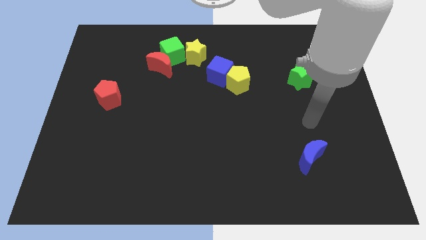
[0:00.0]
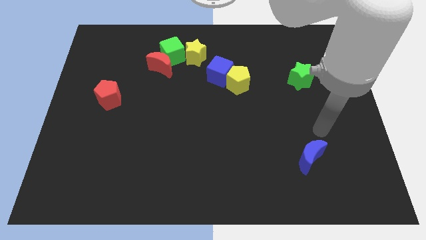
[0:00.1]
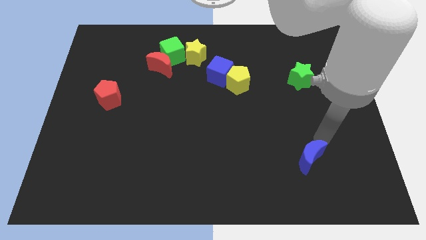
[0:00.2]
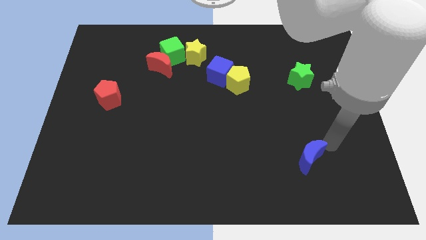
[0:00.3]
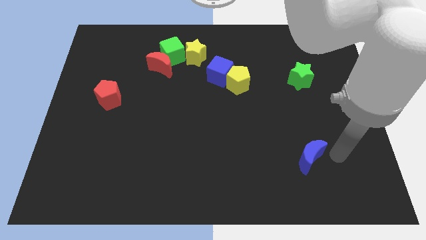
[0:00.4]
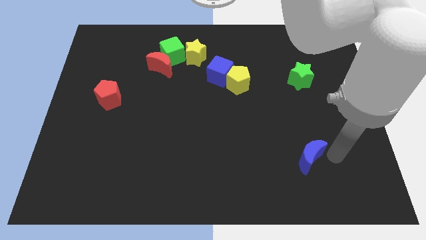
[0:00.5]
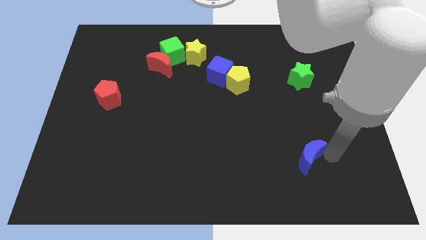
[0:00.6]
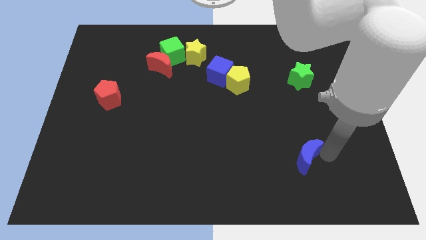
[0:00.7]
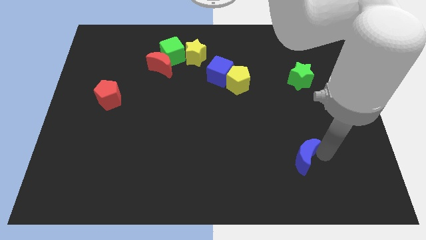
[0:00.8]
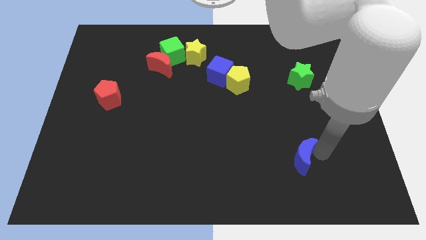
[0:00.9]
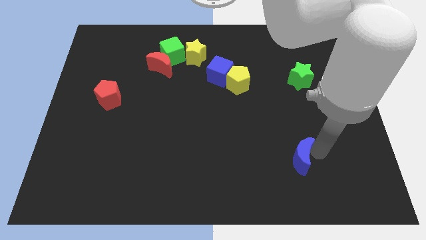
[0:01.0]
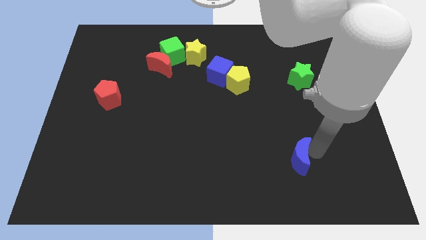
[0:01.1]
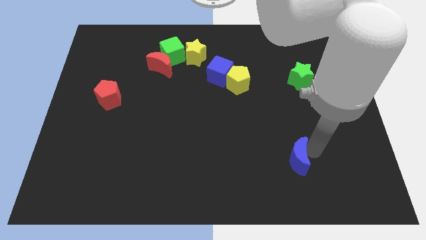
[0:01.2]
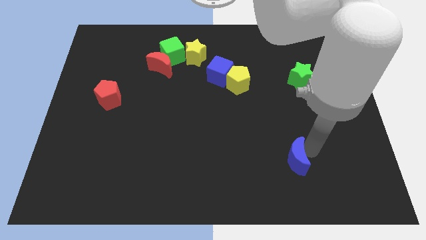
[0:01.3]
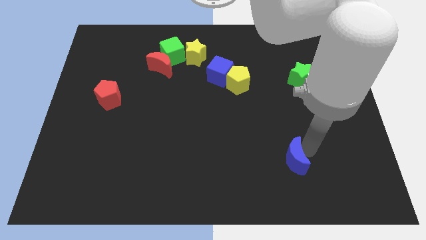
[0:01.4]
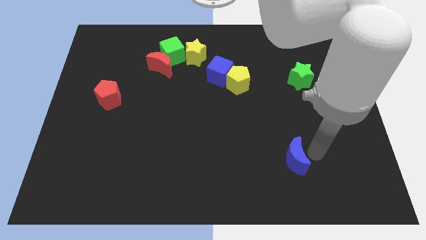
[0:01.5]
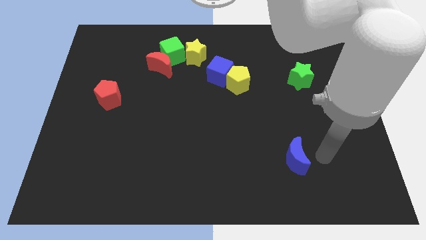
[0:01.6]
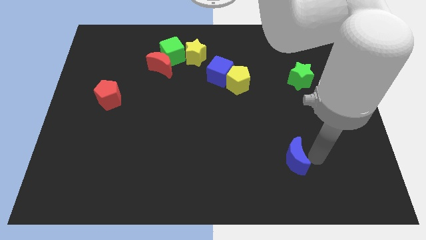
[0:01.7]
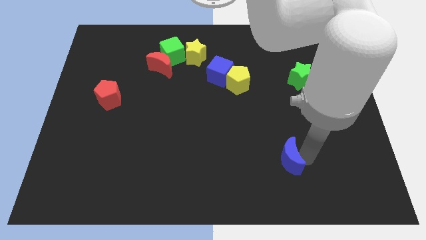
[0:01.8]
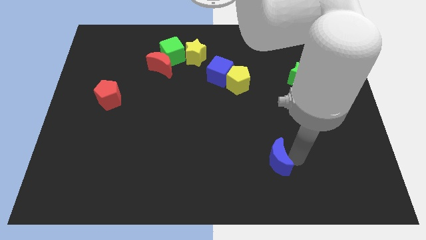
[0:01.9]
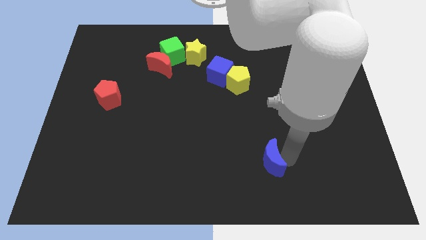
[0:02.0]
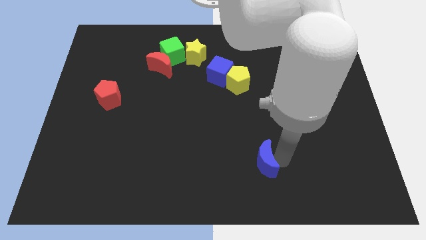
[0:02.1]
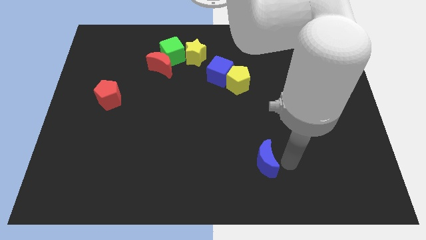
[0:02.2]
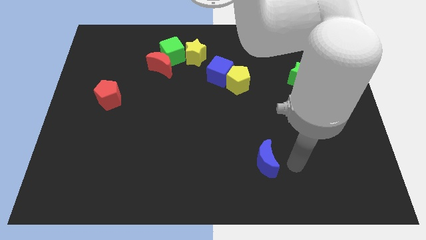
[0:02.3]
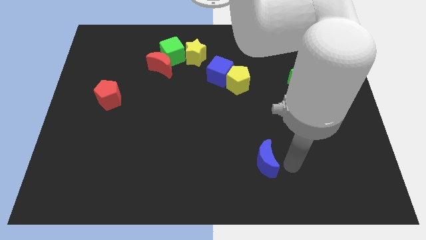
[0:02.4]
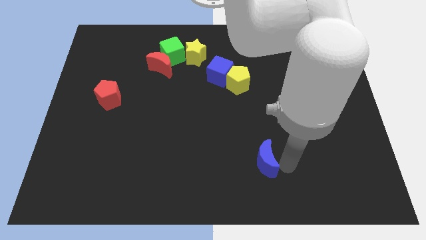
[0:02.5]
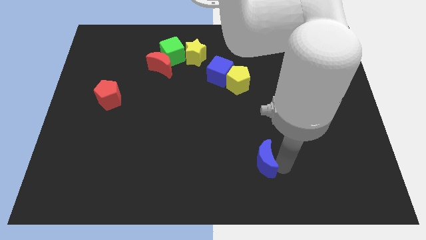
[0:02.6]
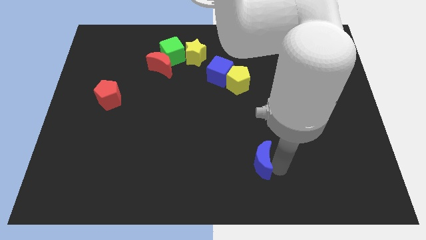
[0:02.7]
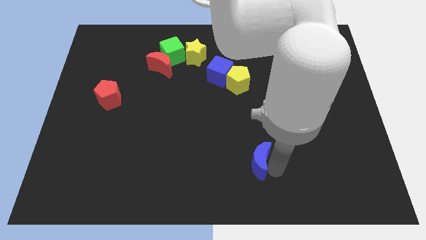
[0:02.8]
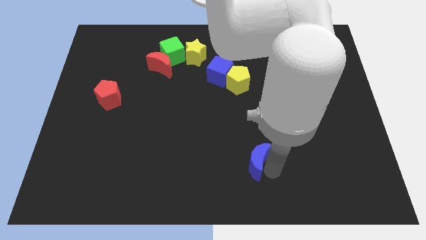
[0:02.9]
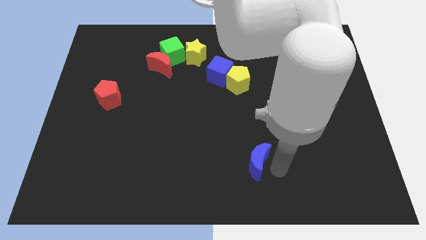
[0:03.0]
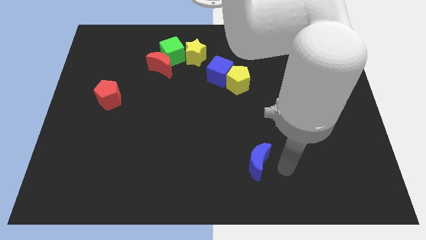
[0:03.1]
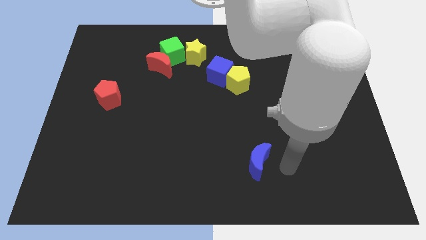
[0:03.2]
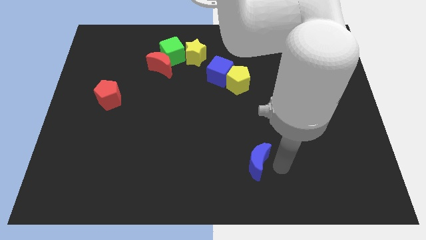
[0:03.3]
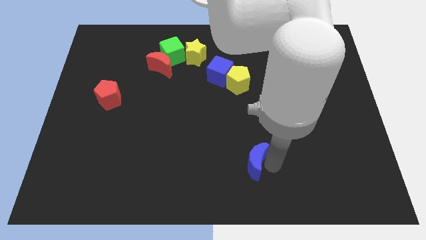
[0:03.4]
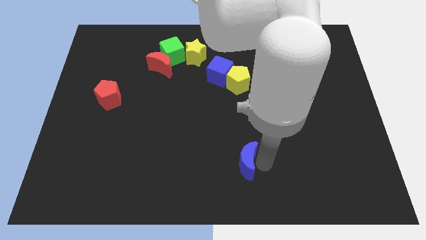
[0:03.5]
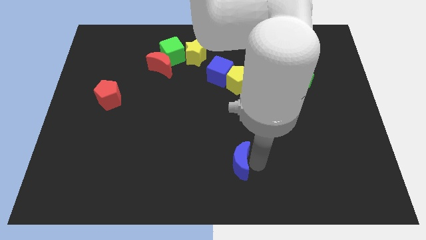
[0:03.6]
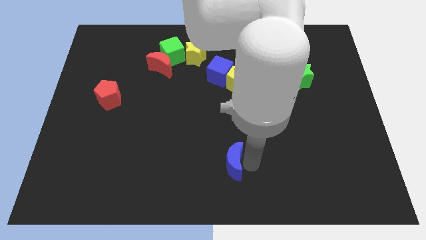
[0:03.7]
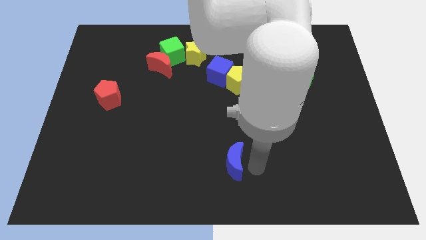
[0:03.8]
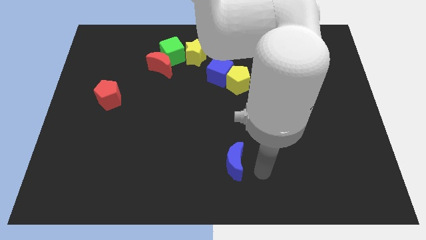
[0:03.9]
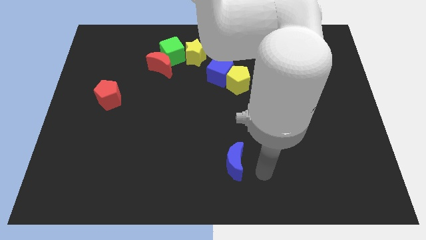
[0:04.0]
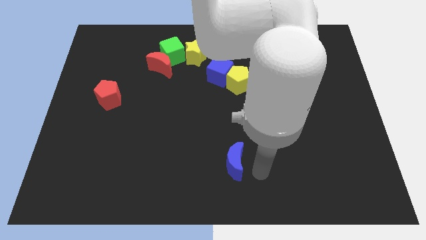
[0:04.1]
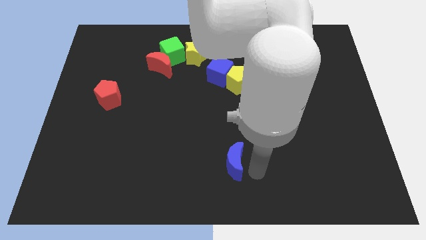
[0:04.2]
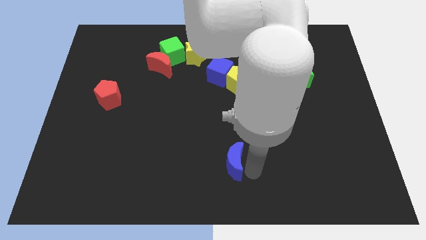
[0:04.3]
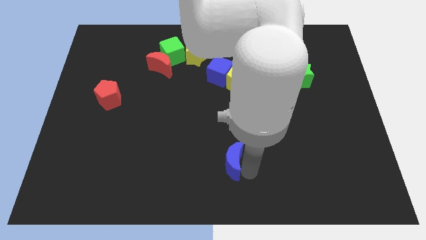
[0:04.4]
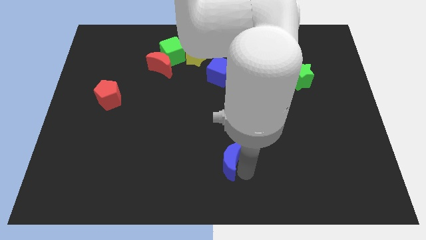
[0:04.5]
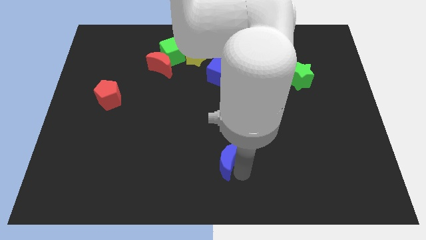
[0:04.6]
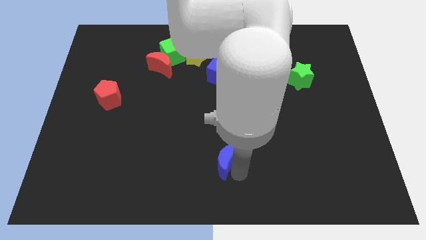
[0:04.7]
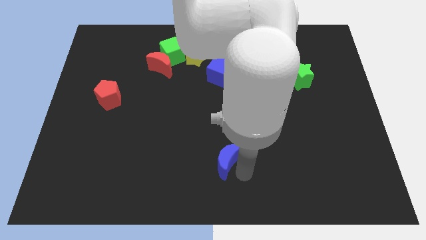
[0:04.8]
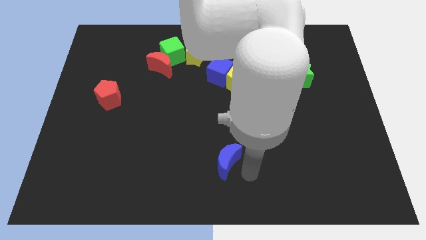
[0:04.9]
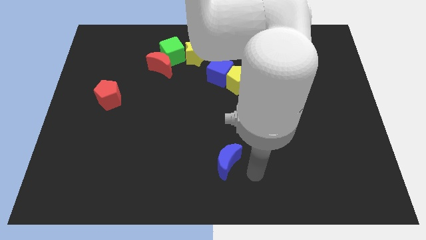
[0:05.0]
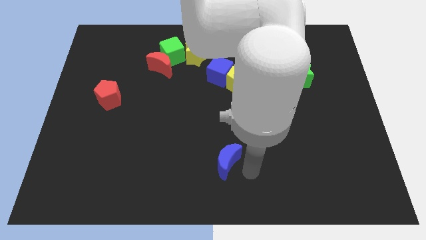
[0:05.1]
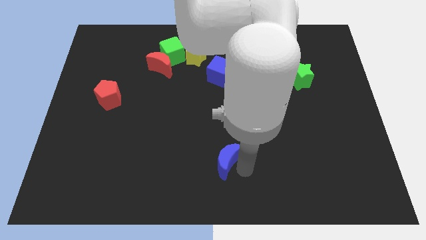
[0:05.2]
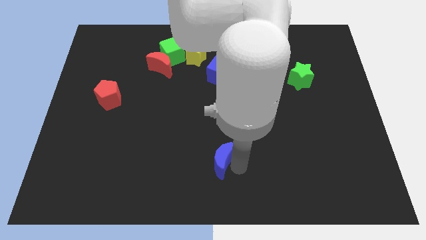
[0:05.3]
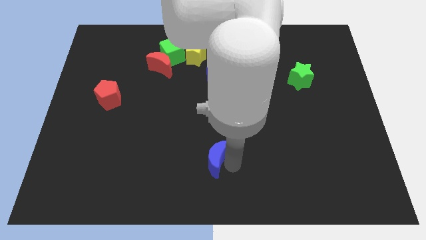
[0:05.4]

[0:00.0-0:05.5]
slide the blue moon left

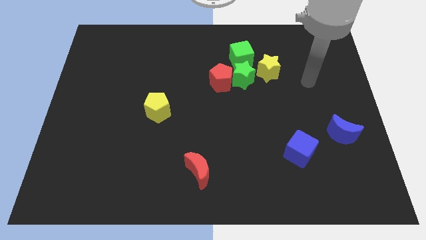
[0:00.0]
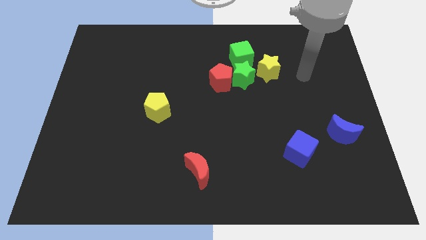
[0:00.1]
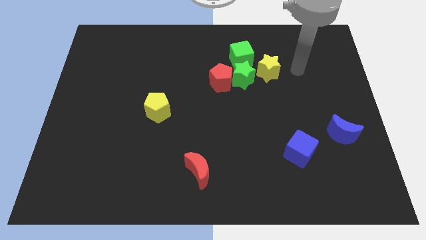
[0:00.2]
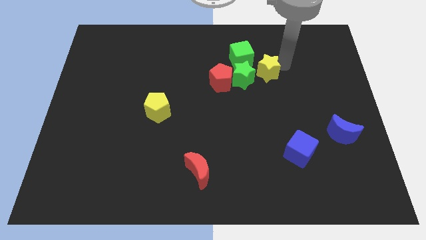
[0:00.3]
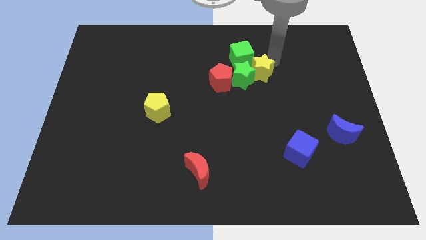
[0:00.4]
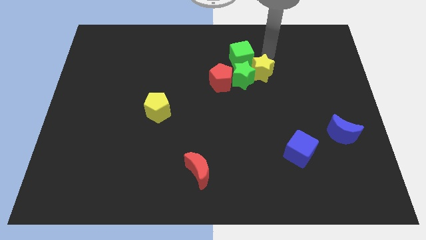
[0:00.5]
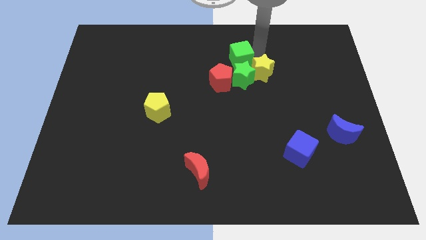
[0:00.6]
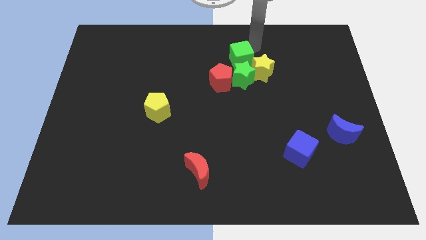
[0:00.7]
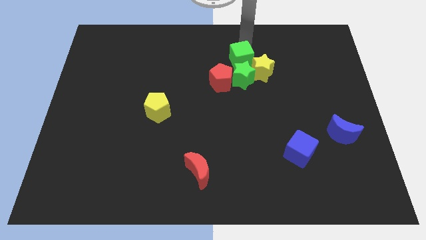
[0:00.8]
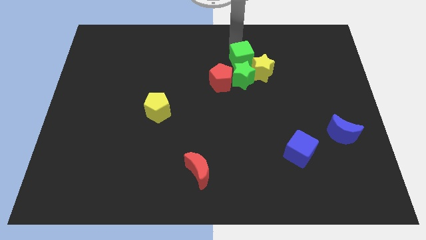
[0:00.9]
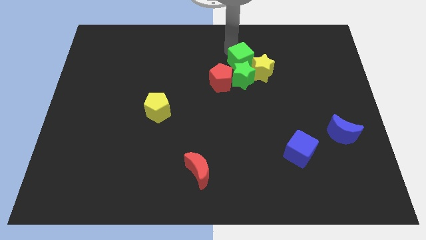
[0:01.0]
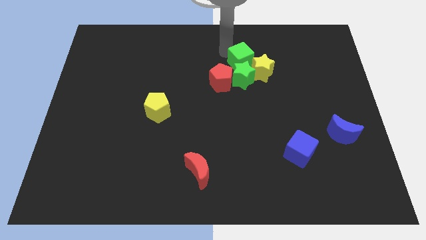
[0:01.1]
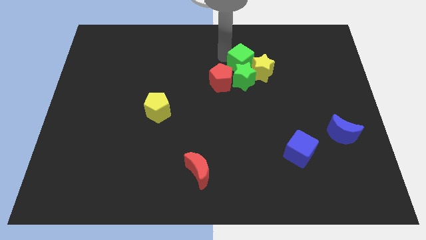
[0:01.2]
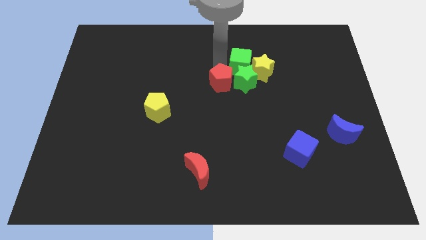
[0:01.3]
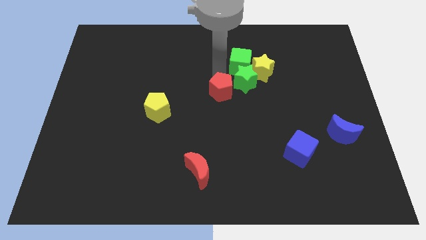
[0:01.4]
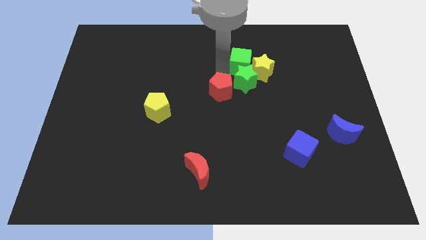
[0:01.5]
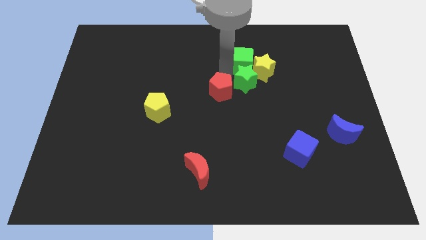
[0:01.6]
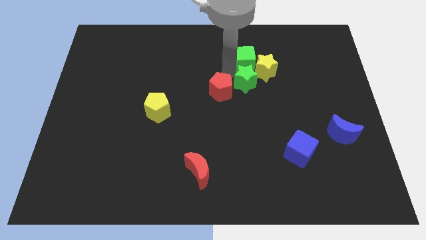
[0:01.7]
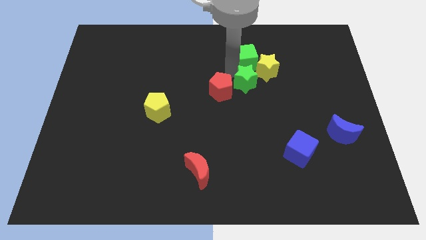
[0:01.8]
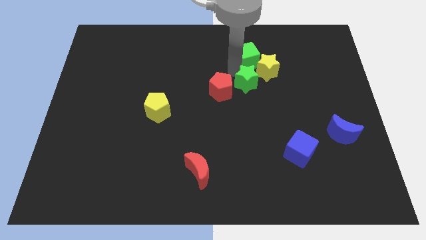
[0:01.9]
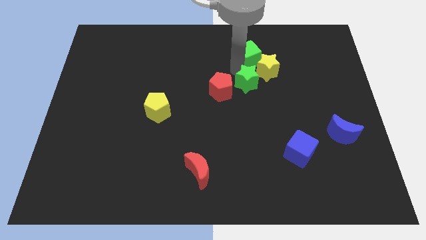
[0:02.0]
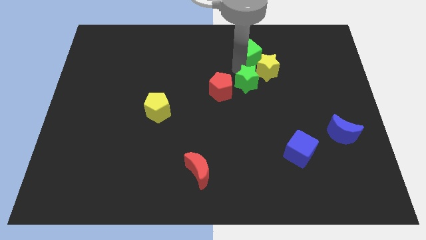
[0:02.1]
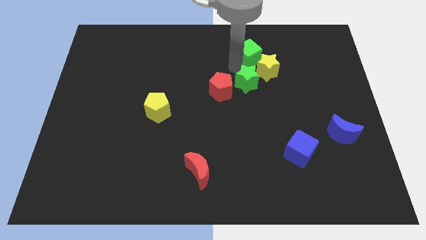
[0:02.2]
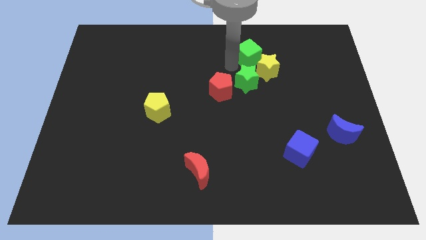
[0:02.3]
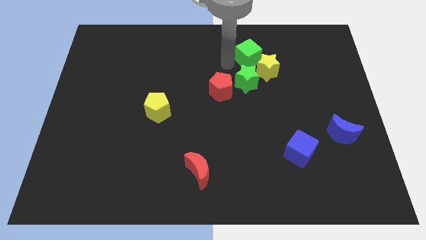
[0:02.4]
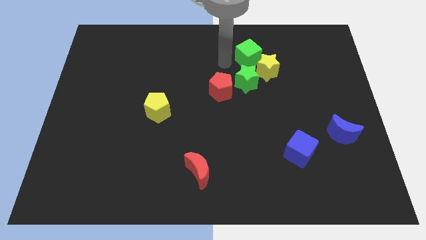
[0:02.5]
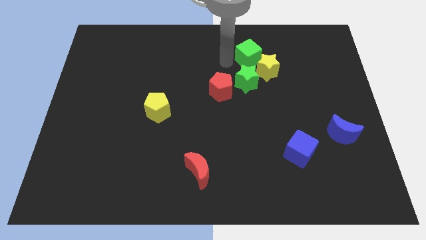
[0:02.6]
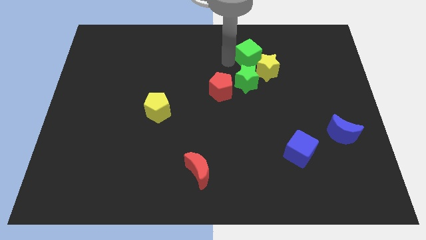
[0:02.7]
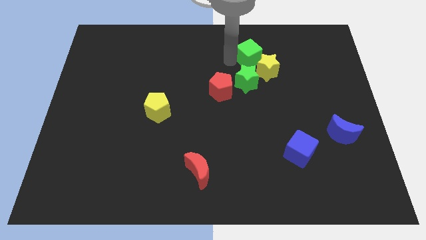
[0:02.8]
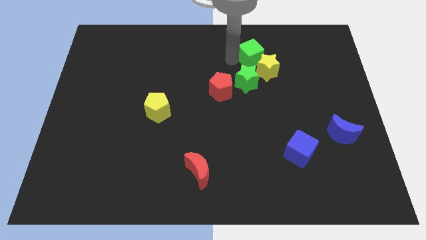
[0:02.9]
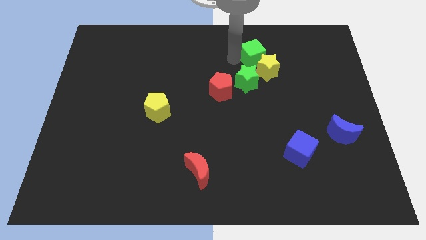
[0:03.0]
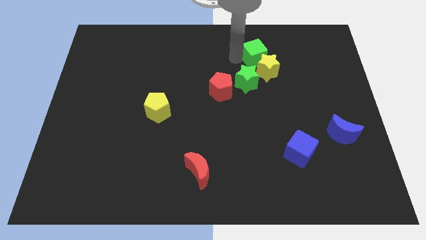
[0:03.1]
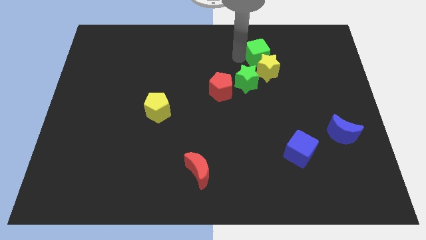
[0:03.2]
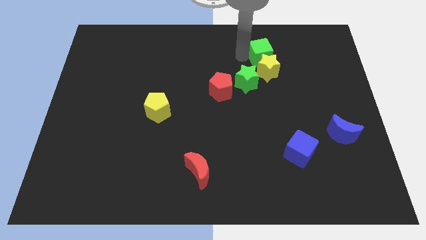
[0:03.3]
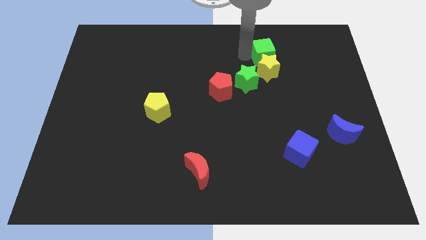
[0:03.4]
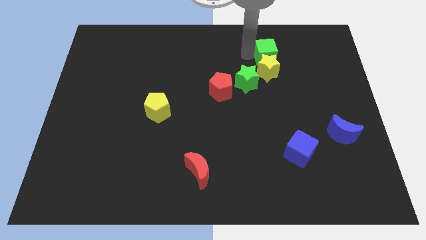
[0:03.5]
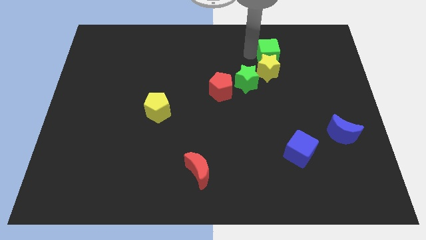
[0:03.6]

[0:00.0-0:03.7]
move the green cube to the right a bit
